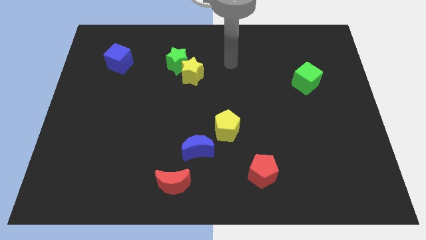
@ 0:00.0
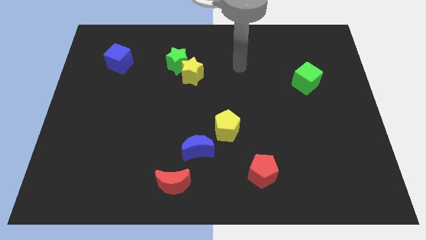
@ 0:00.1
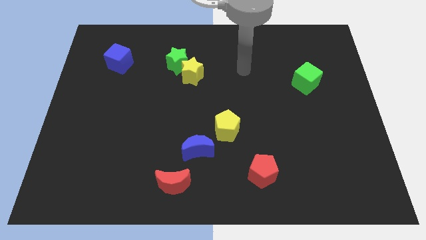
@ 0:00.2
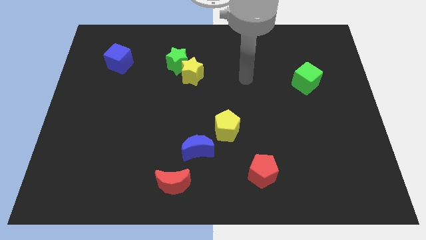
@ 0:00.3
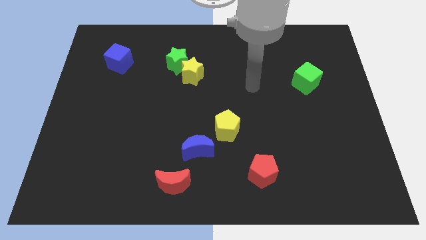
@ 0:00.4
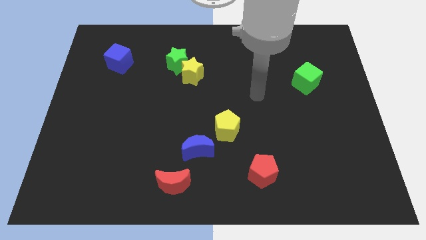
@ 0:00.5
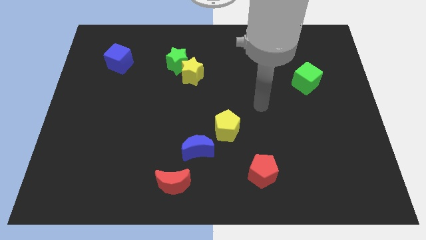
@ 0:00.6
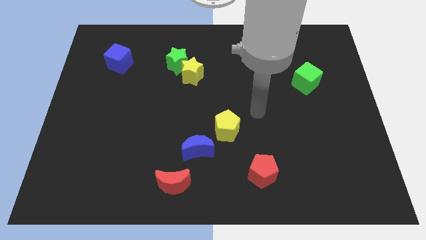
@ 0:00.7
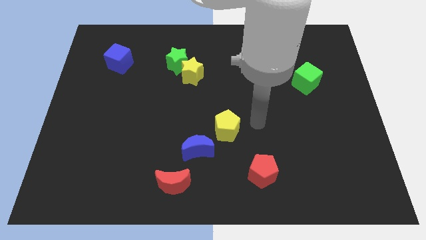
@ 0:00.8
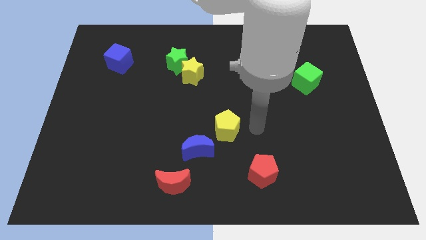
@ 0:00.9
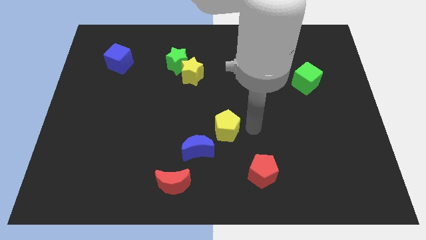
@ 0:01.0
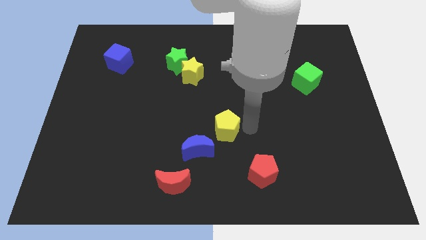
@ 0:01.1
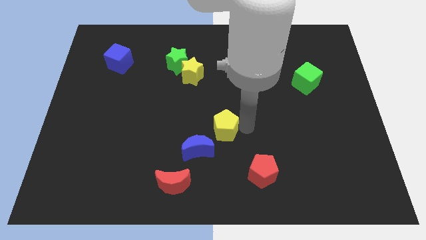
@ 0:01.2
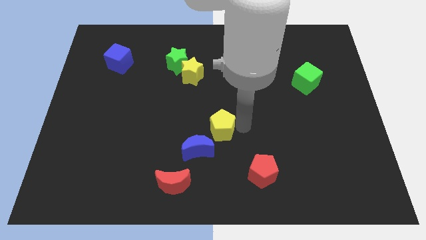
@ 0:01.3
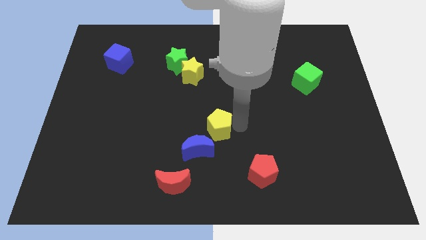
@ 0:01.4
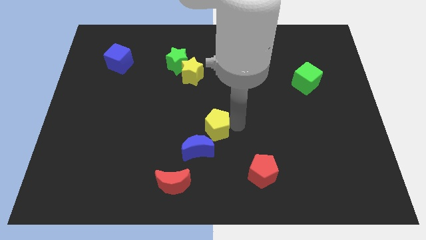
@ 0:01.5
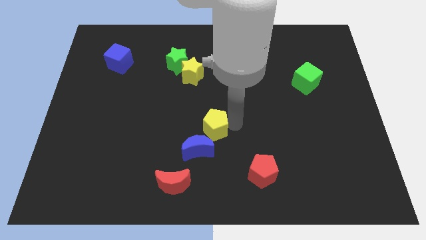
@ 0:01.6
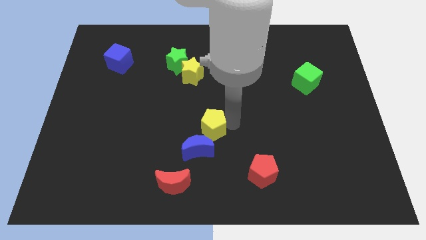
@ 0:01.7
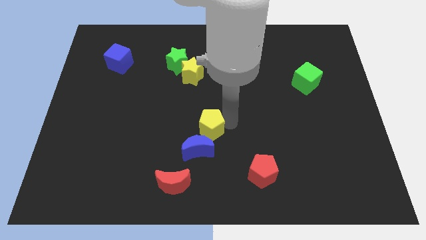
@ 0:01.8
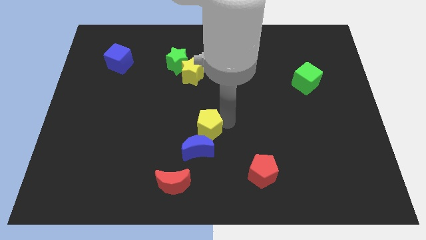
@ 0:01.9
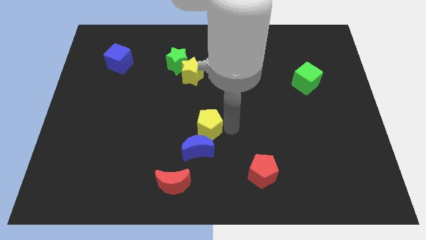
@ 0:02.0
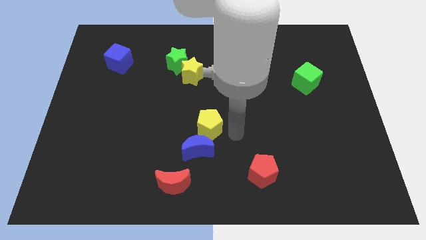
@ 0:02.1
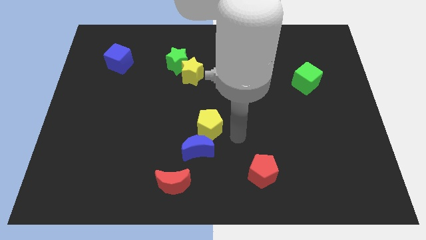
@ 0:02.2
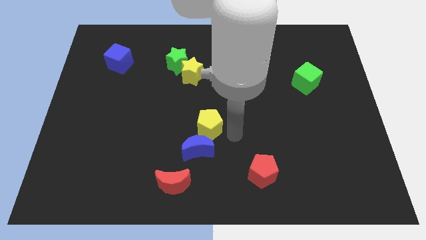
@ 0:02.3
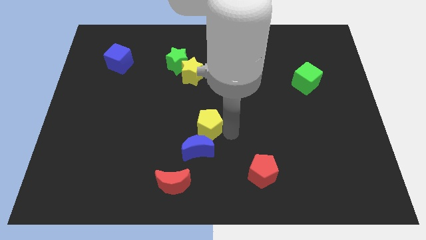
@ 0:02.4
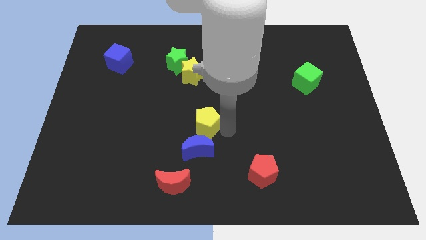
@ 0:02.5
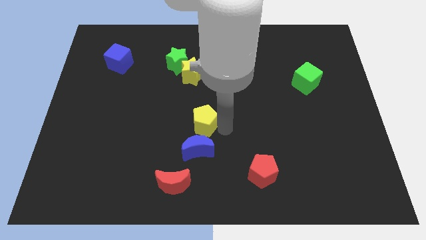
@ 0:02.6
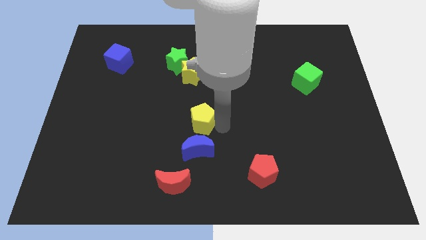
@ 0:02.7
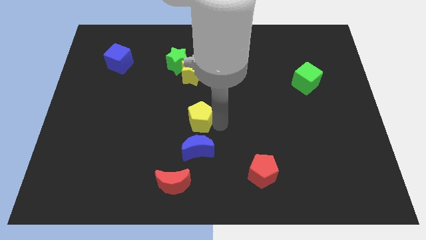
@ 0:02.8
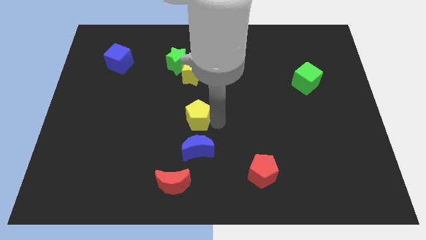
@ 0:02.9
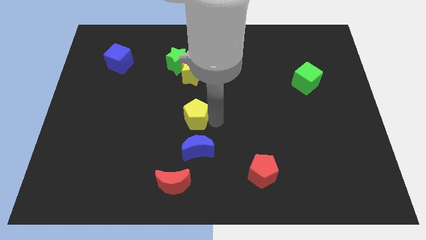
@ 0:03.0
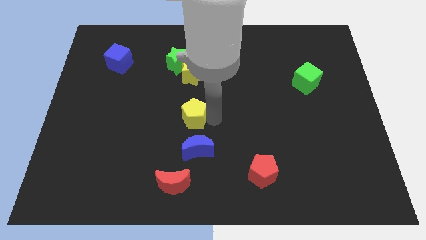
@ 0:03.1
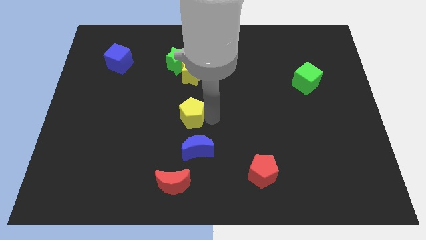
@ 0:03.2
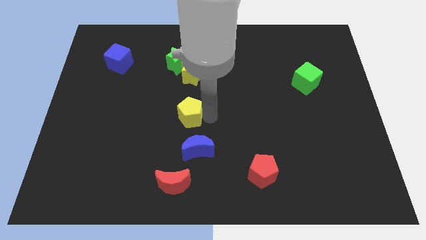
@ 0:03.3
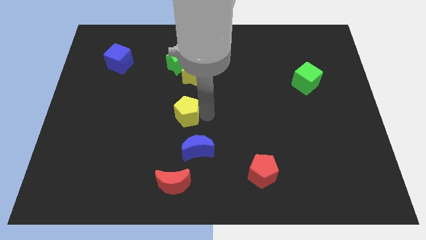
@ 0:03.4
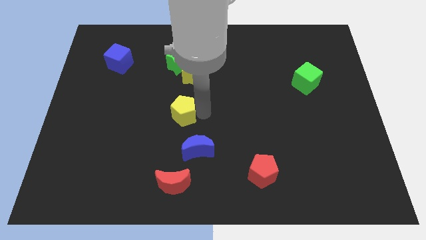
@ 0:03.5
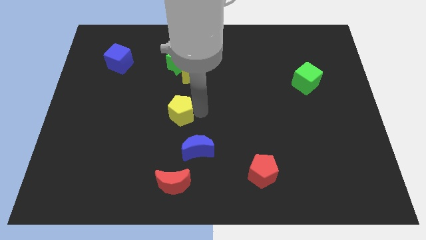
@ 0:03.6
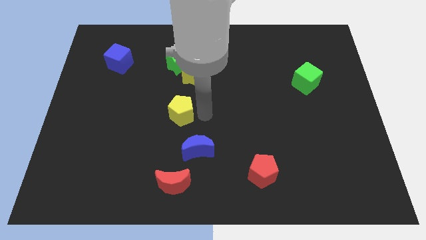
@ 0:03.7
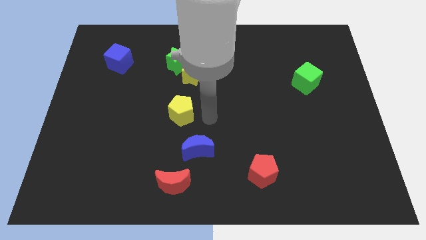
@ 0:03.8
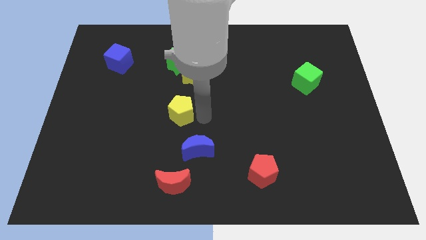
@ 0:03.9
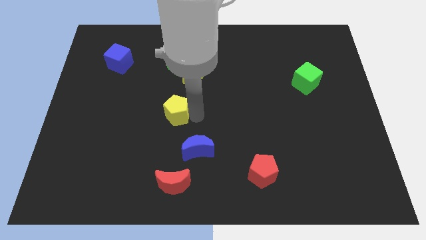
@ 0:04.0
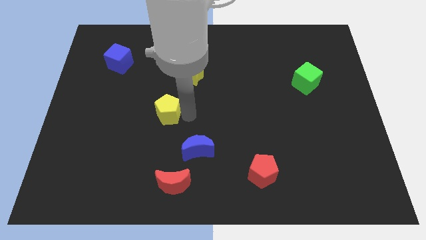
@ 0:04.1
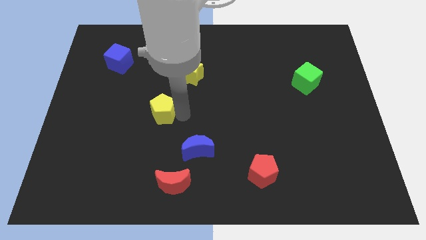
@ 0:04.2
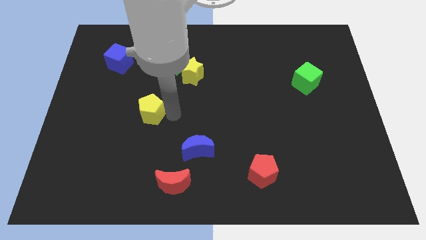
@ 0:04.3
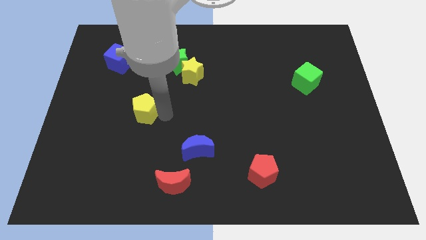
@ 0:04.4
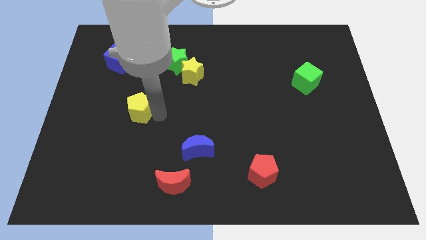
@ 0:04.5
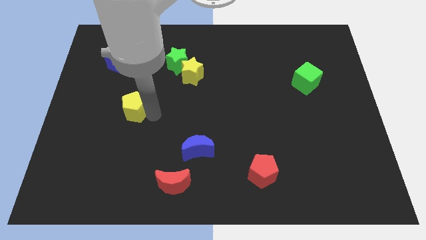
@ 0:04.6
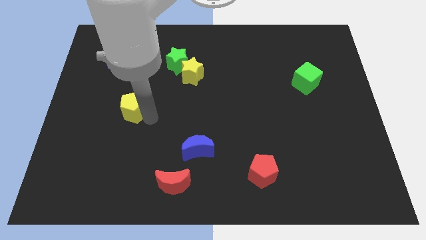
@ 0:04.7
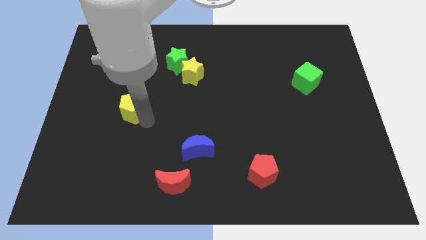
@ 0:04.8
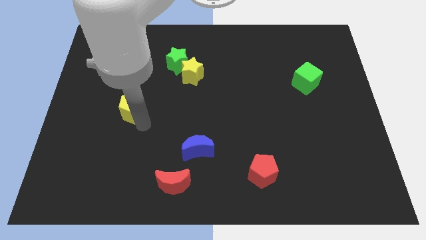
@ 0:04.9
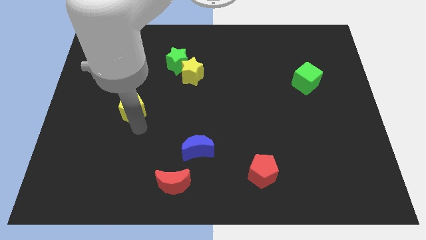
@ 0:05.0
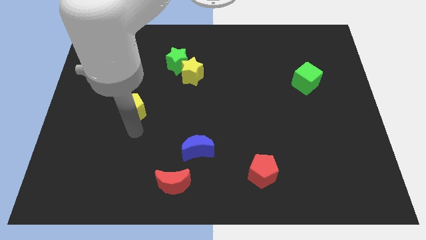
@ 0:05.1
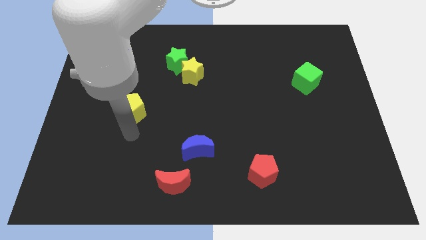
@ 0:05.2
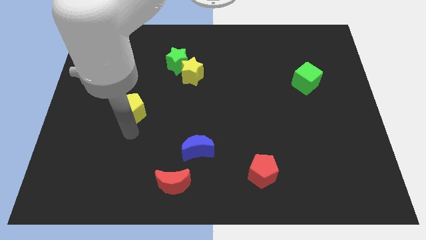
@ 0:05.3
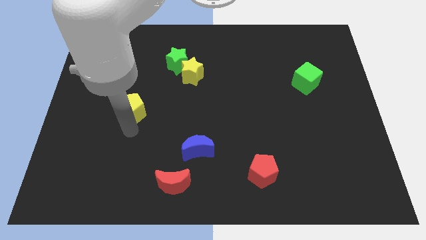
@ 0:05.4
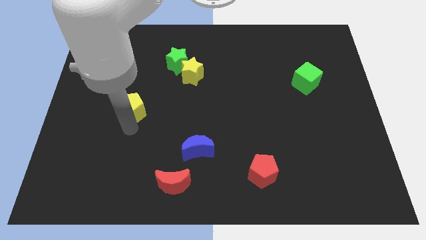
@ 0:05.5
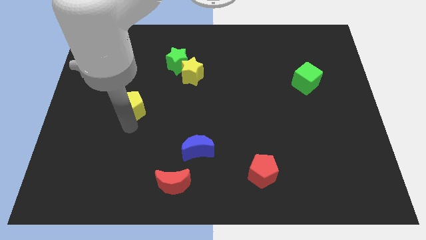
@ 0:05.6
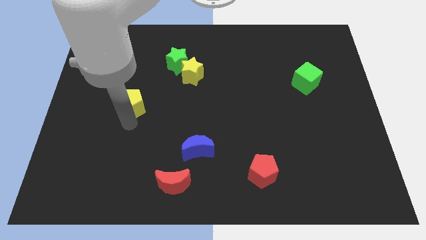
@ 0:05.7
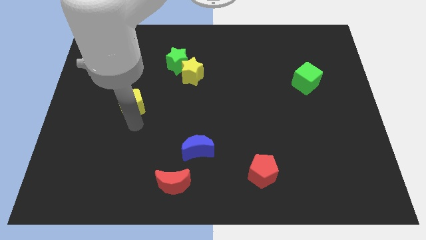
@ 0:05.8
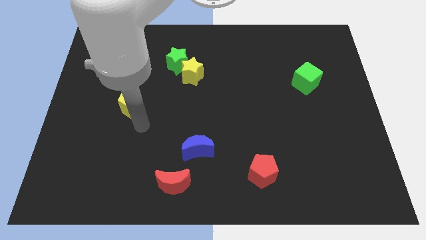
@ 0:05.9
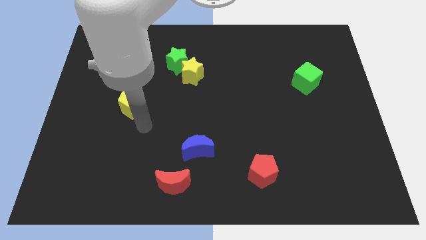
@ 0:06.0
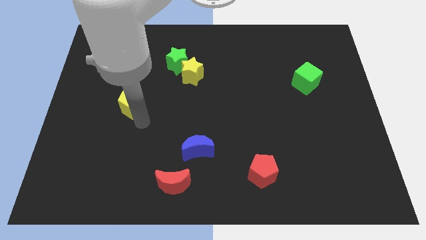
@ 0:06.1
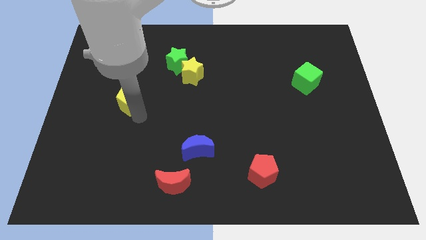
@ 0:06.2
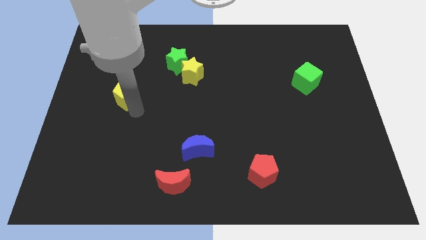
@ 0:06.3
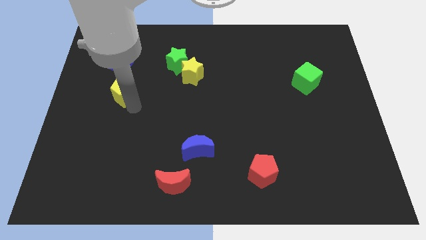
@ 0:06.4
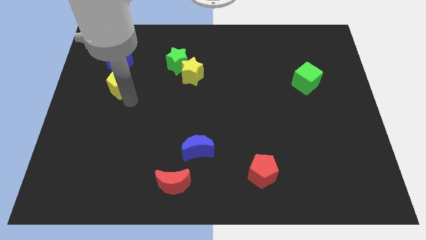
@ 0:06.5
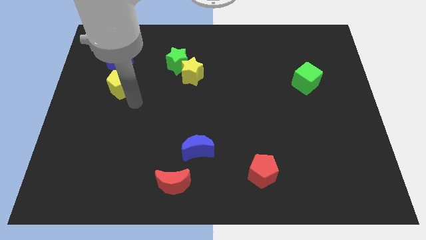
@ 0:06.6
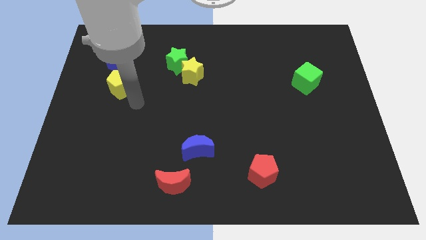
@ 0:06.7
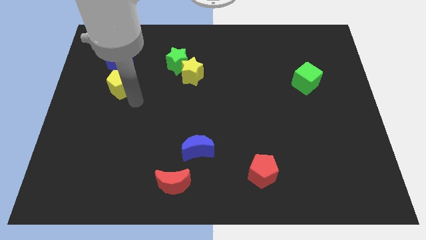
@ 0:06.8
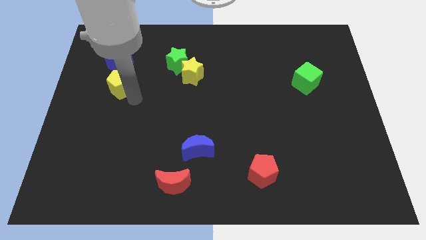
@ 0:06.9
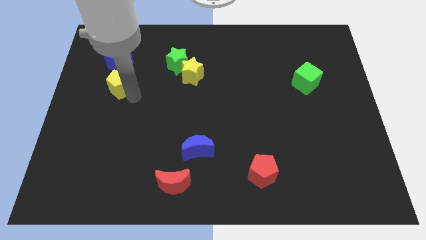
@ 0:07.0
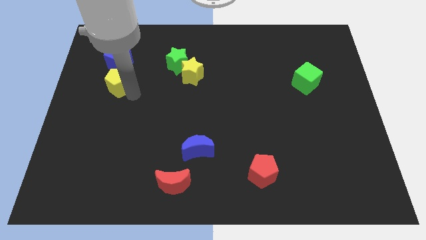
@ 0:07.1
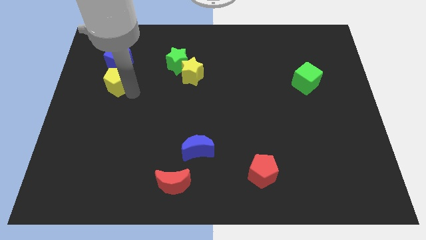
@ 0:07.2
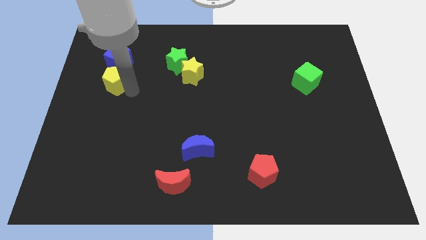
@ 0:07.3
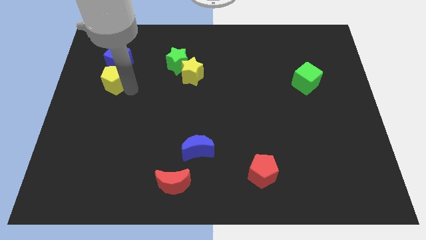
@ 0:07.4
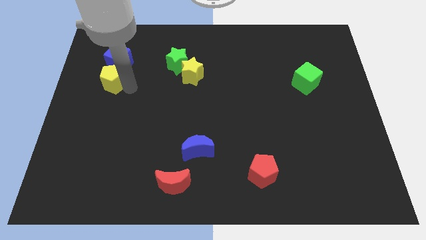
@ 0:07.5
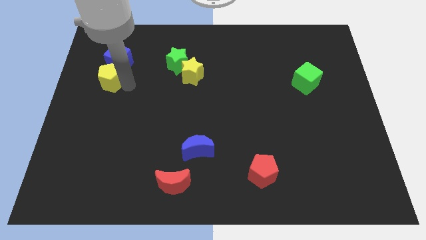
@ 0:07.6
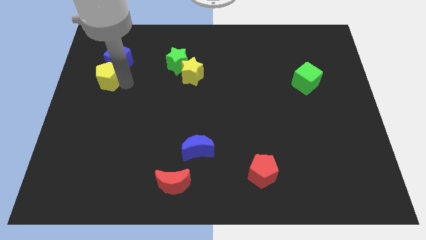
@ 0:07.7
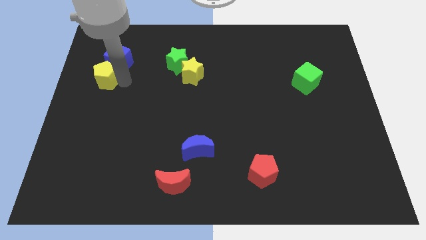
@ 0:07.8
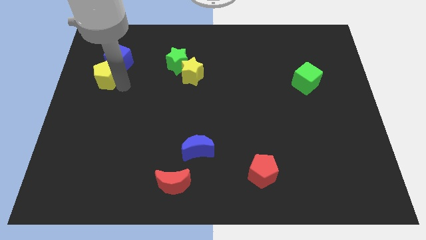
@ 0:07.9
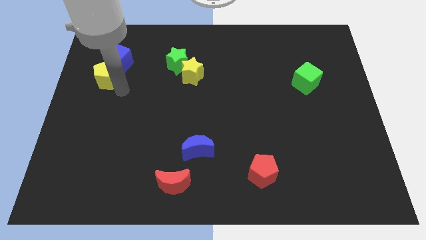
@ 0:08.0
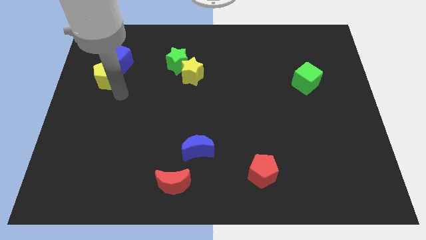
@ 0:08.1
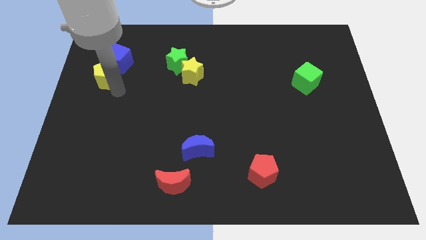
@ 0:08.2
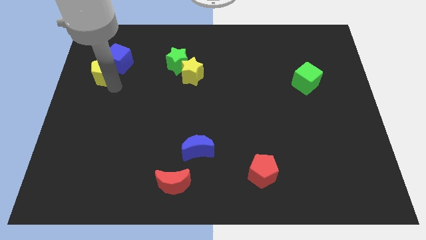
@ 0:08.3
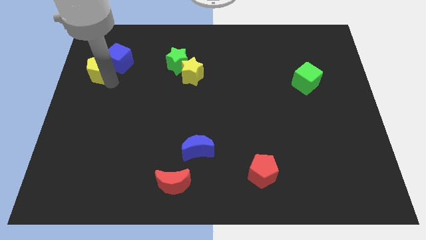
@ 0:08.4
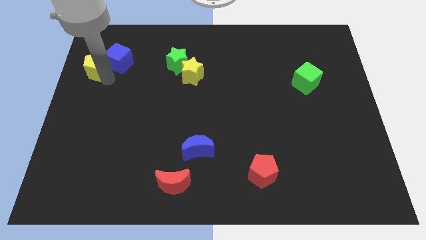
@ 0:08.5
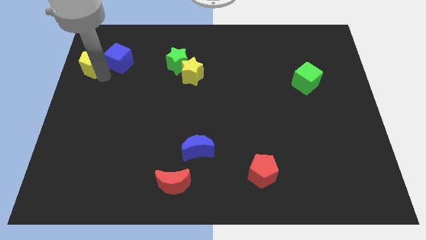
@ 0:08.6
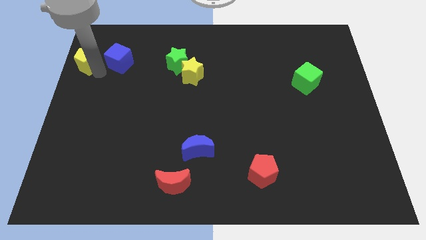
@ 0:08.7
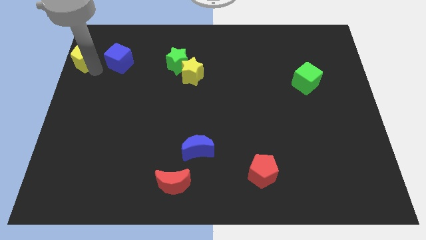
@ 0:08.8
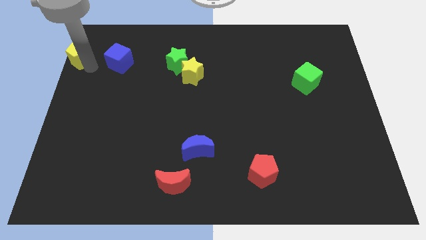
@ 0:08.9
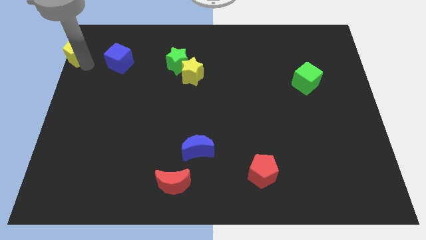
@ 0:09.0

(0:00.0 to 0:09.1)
slide the yellow pentagon to the top left corner
